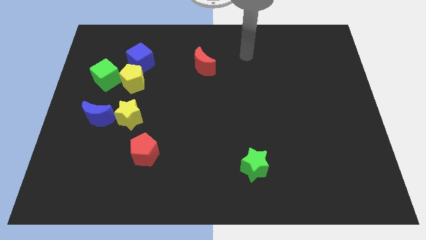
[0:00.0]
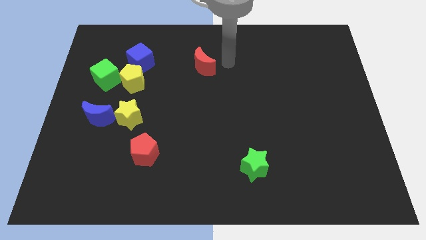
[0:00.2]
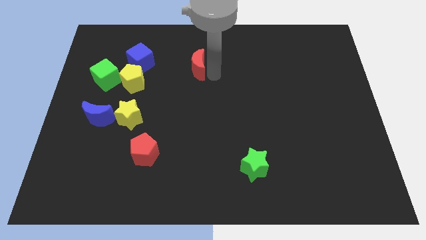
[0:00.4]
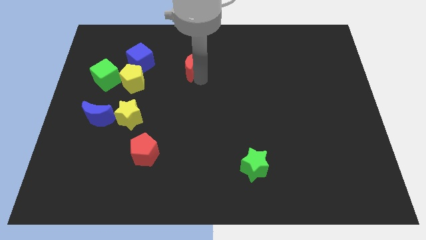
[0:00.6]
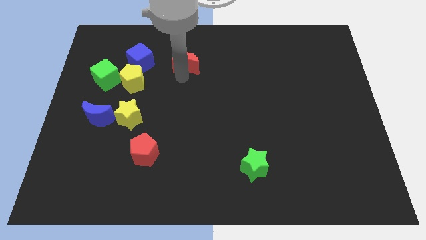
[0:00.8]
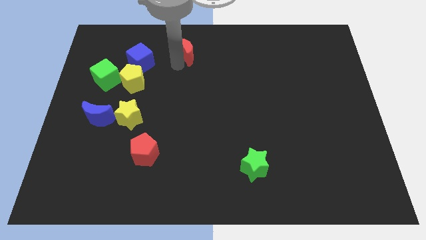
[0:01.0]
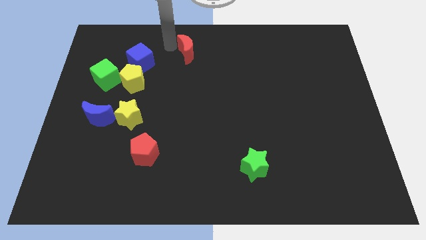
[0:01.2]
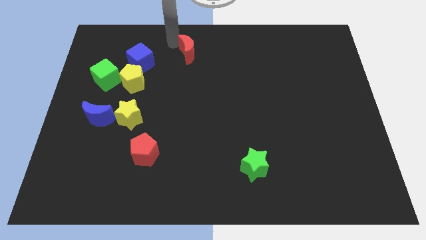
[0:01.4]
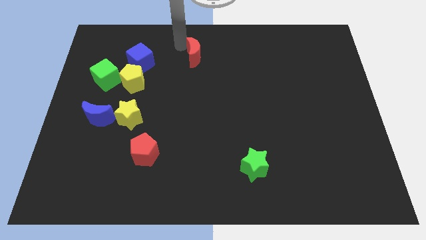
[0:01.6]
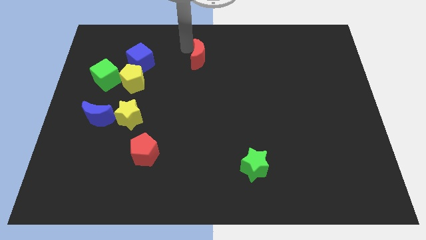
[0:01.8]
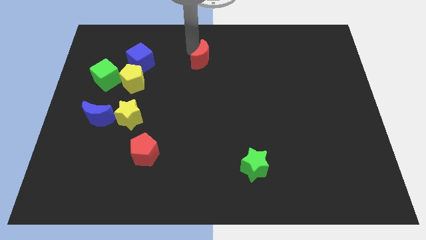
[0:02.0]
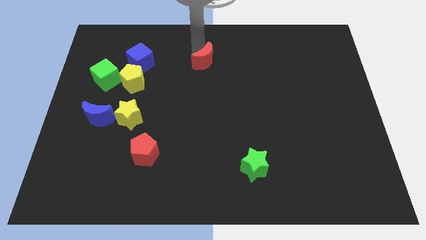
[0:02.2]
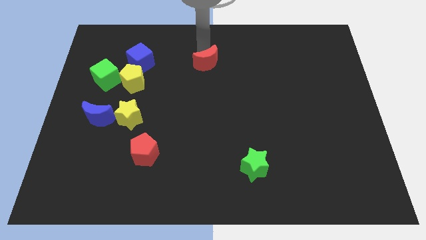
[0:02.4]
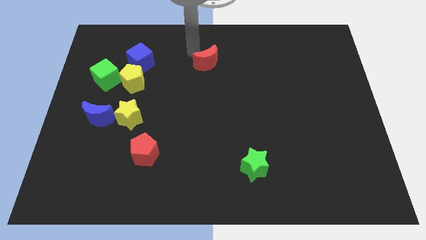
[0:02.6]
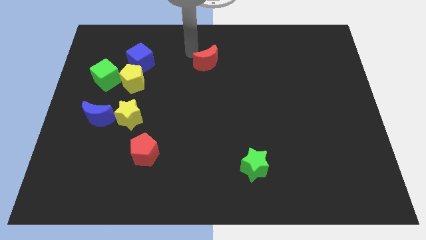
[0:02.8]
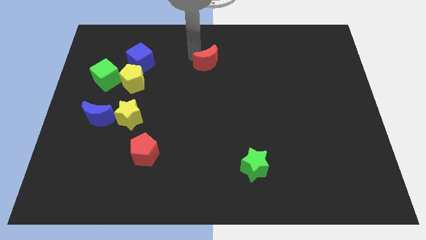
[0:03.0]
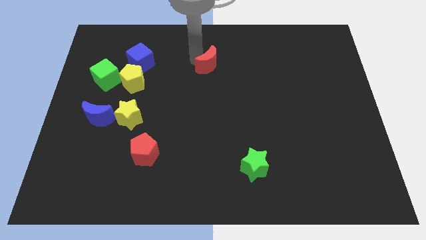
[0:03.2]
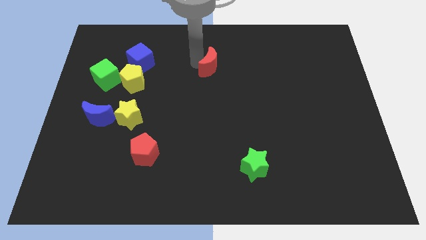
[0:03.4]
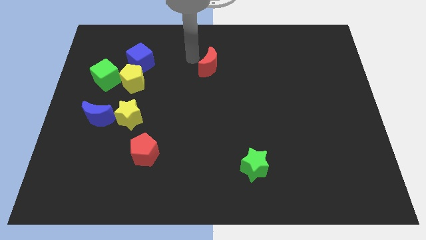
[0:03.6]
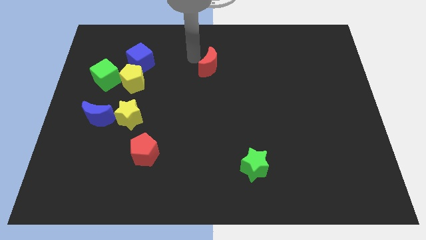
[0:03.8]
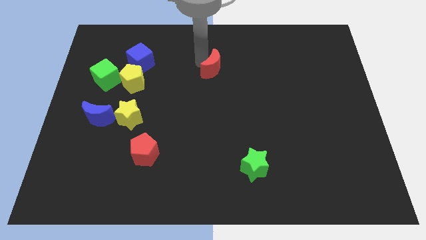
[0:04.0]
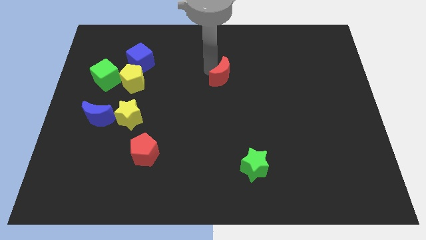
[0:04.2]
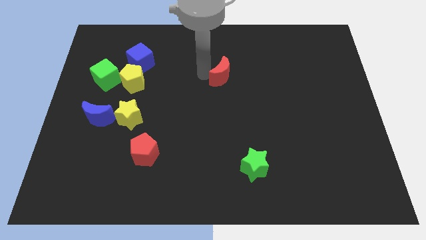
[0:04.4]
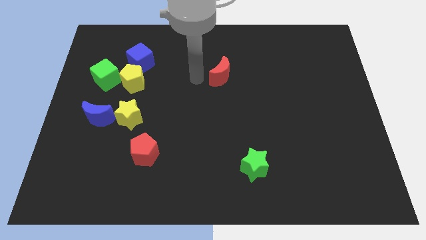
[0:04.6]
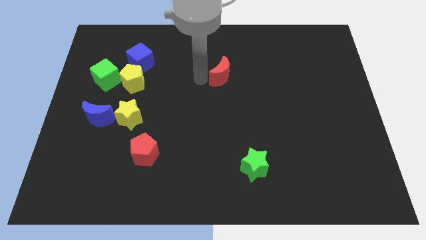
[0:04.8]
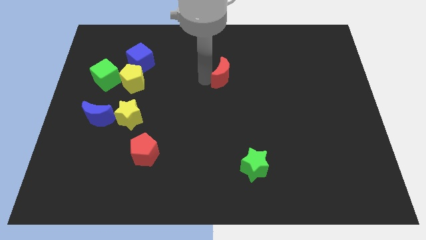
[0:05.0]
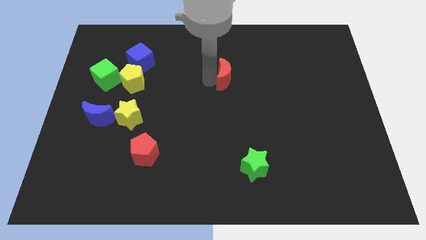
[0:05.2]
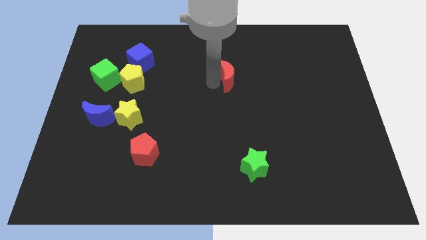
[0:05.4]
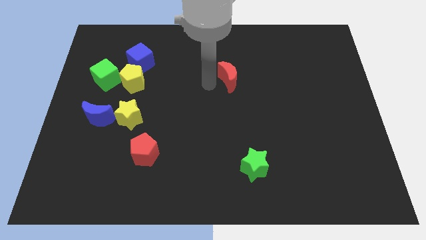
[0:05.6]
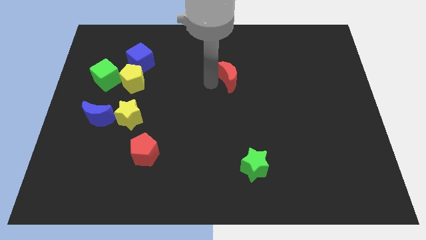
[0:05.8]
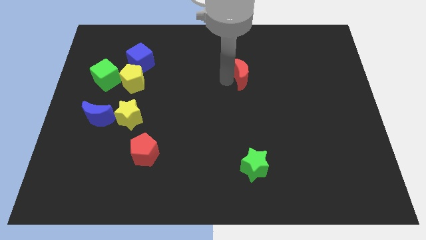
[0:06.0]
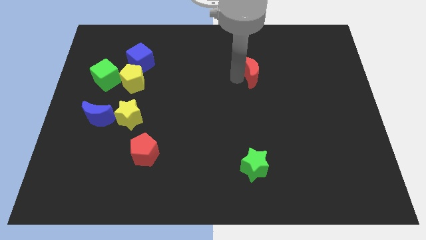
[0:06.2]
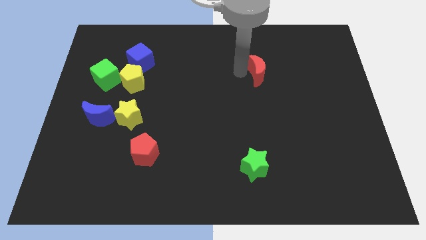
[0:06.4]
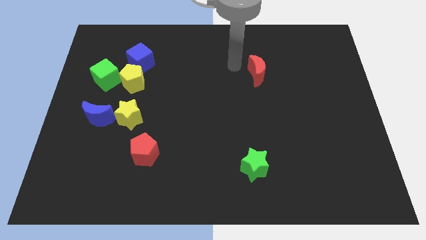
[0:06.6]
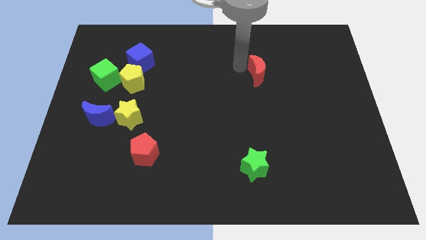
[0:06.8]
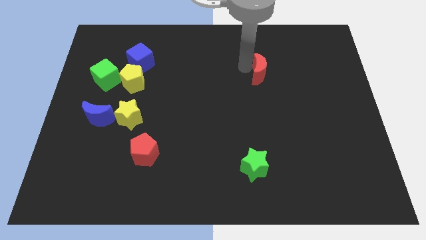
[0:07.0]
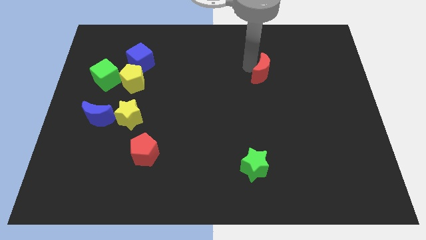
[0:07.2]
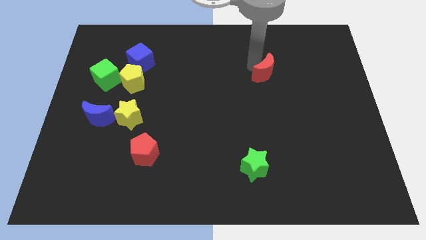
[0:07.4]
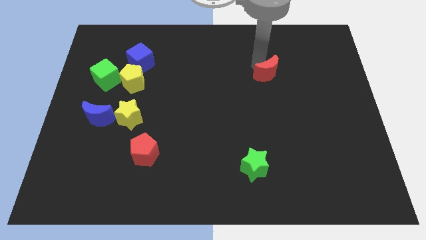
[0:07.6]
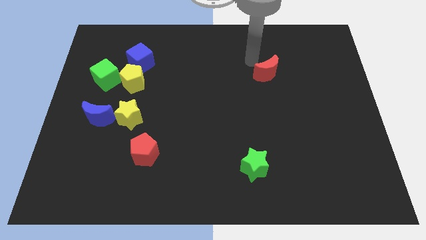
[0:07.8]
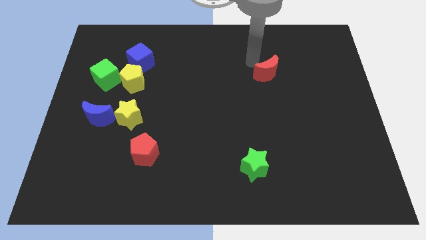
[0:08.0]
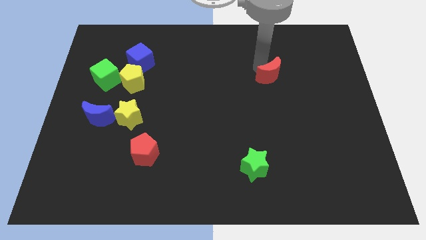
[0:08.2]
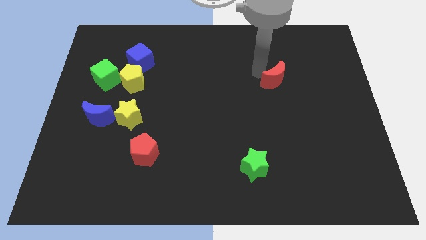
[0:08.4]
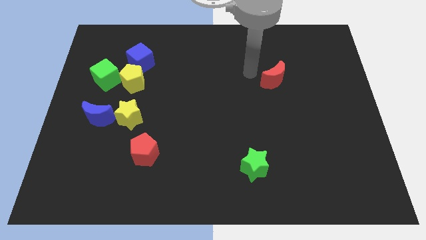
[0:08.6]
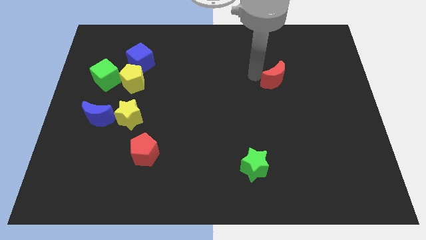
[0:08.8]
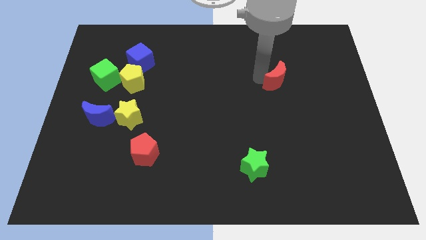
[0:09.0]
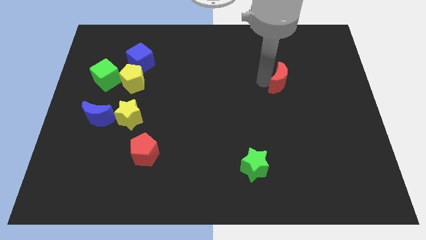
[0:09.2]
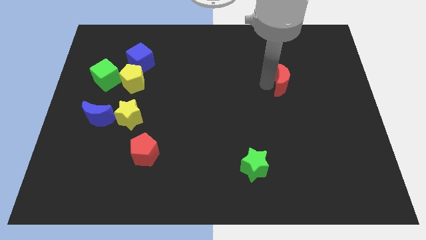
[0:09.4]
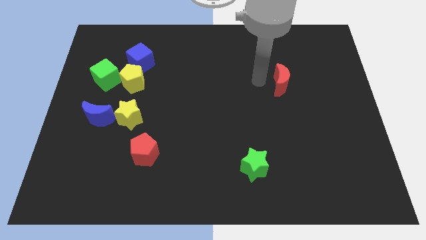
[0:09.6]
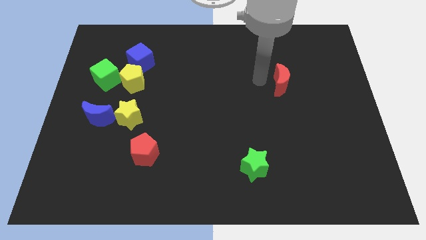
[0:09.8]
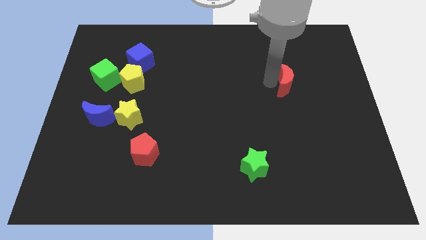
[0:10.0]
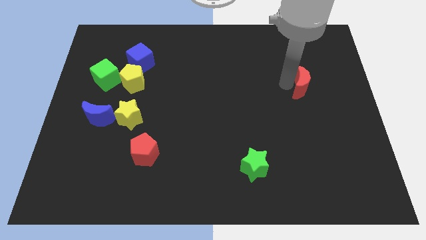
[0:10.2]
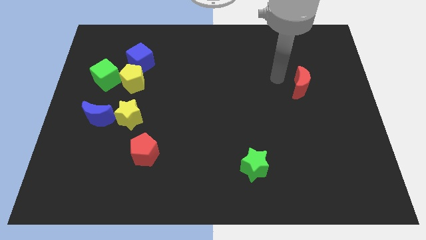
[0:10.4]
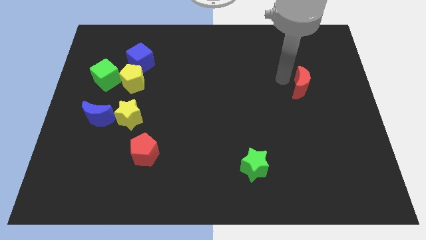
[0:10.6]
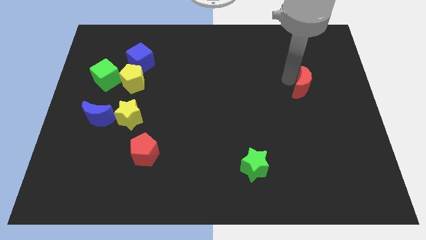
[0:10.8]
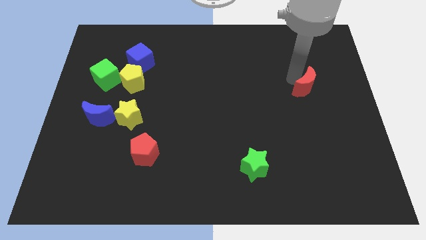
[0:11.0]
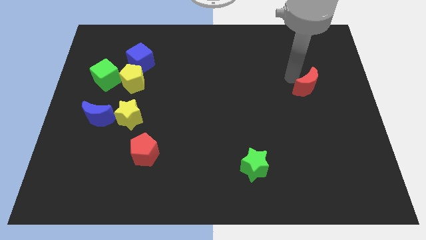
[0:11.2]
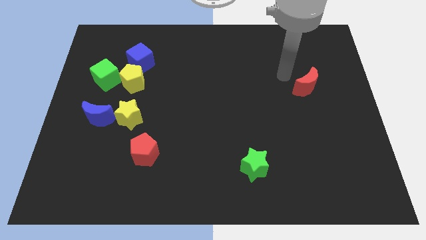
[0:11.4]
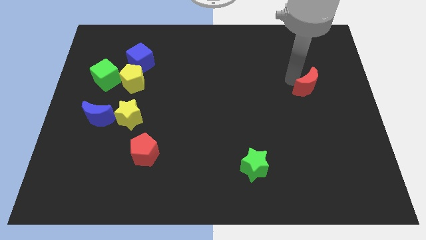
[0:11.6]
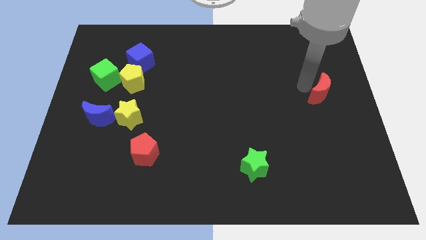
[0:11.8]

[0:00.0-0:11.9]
move the red moon to the right side
